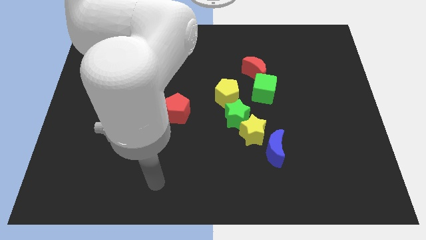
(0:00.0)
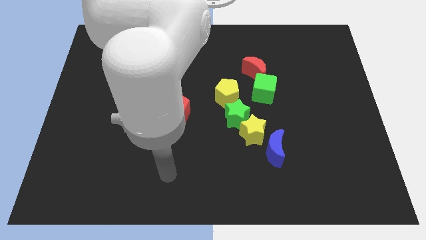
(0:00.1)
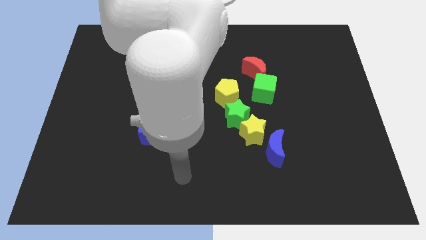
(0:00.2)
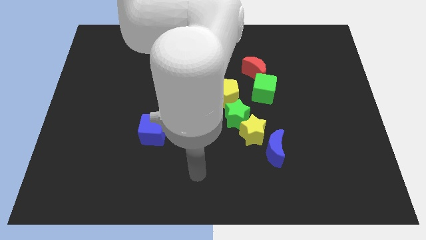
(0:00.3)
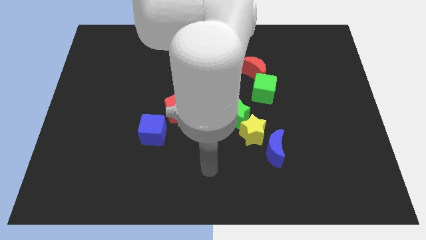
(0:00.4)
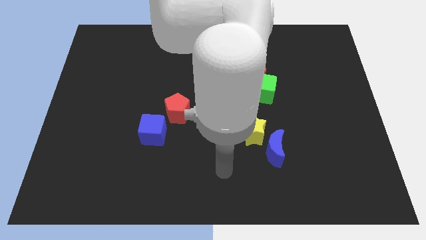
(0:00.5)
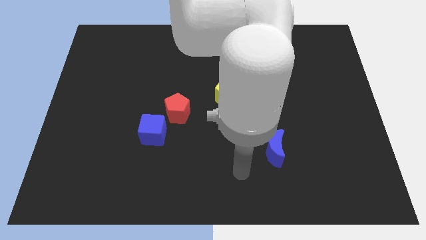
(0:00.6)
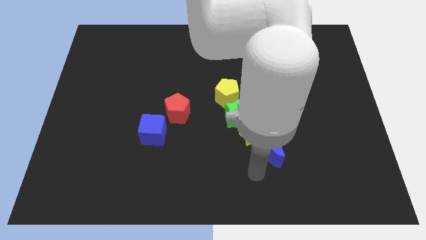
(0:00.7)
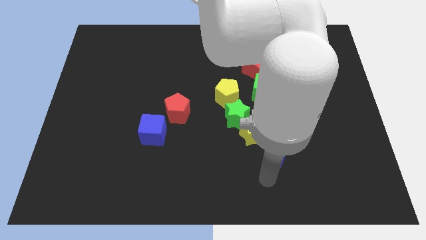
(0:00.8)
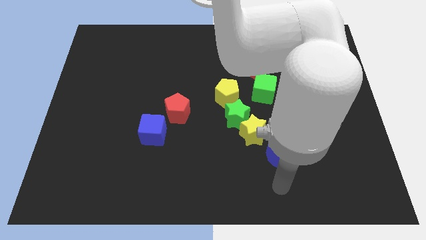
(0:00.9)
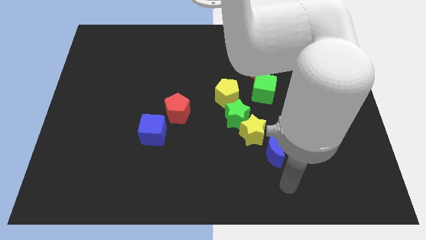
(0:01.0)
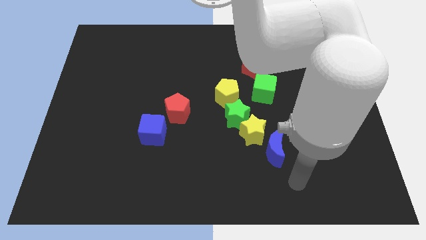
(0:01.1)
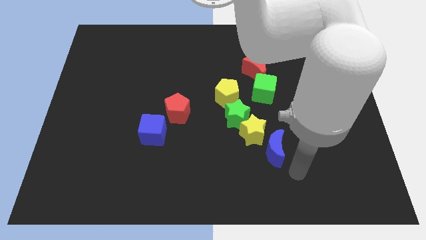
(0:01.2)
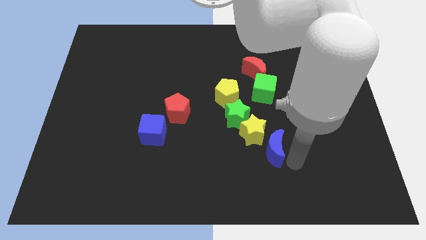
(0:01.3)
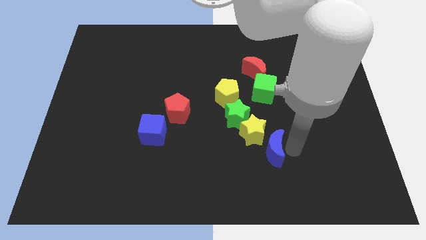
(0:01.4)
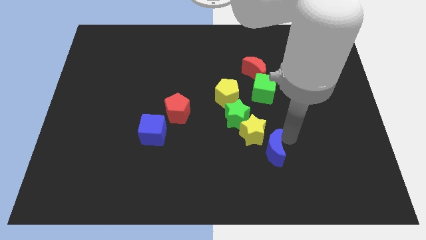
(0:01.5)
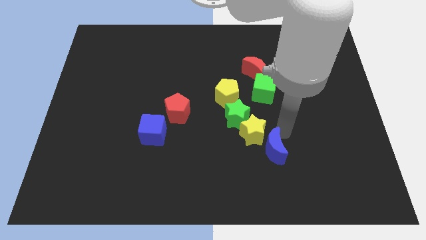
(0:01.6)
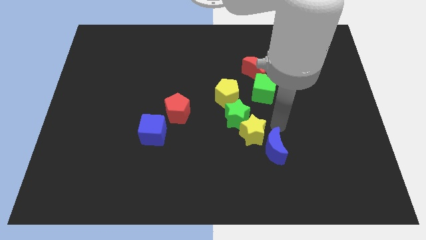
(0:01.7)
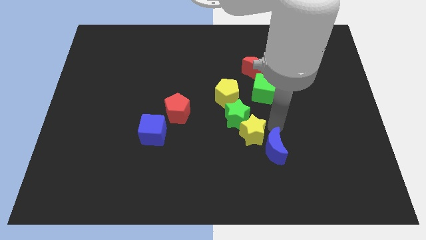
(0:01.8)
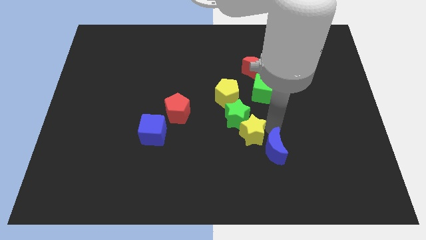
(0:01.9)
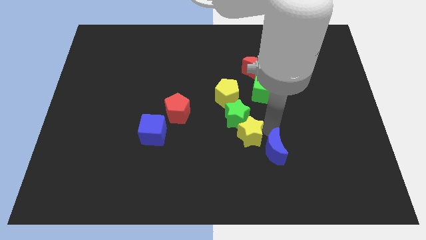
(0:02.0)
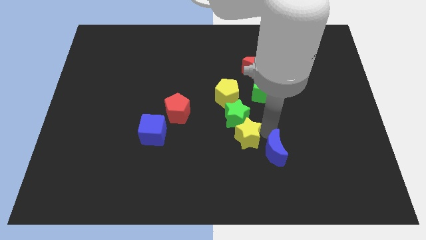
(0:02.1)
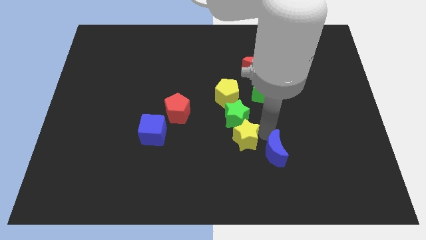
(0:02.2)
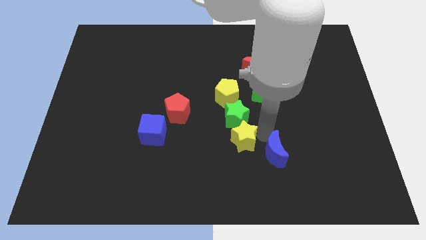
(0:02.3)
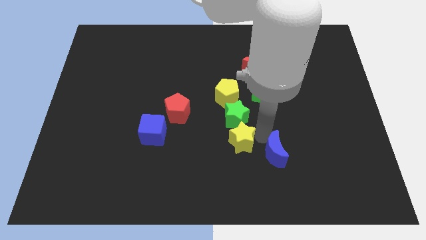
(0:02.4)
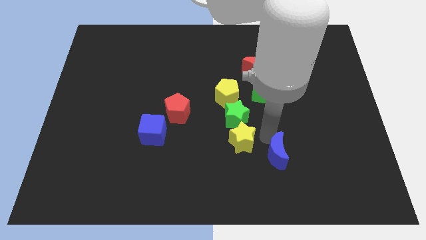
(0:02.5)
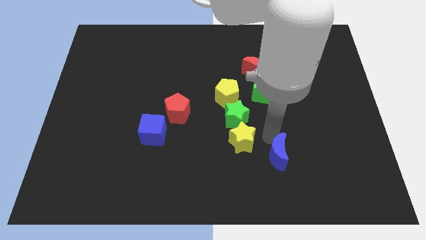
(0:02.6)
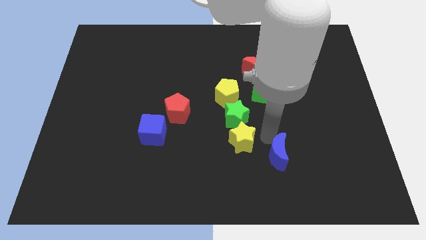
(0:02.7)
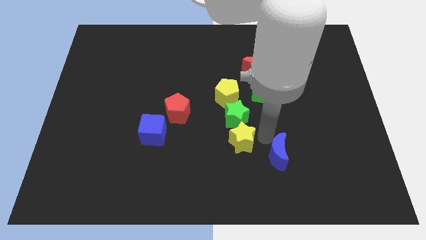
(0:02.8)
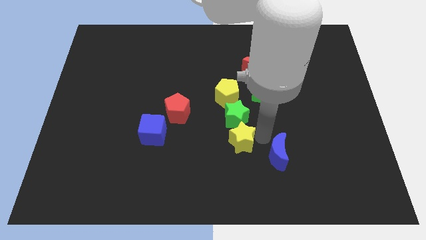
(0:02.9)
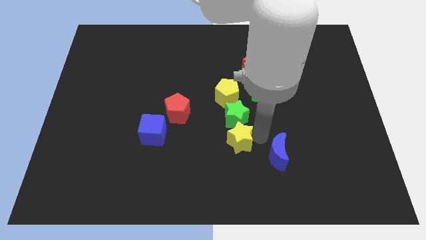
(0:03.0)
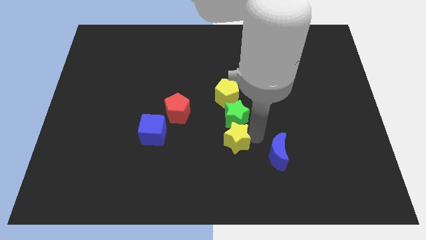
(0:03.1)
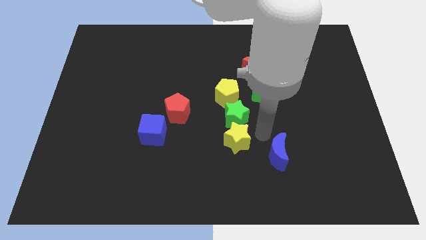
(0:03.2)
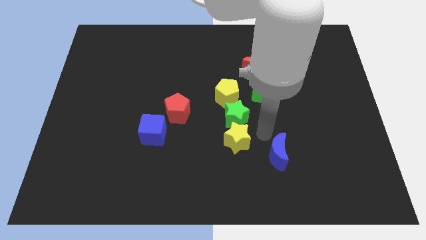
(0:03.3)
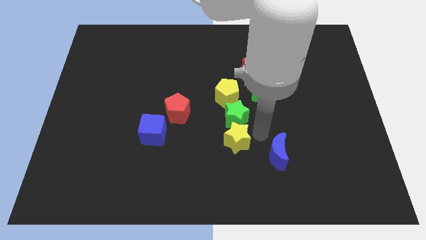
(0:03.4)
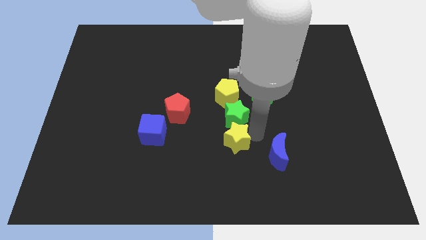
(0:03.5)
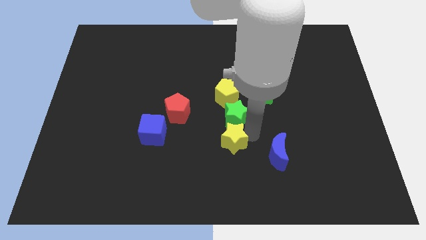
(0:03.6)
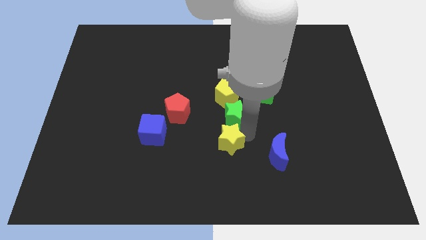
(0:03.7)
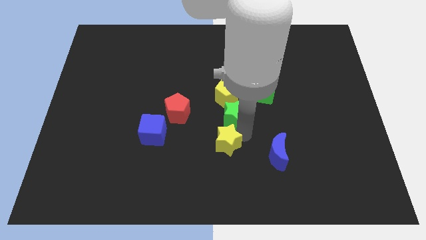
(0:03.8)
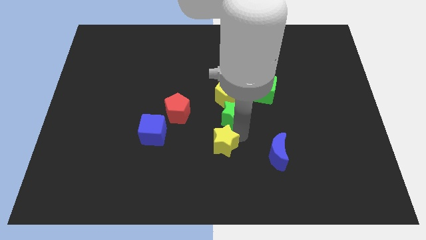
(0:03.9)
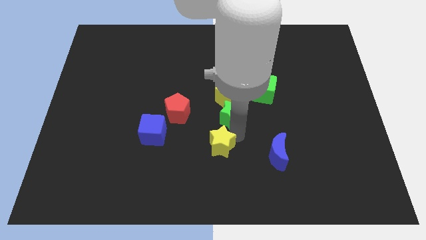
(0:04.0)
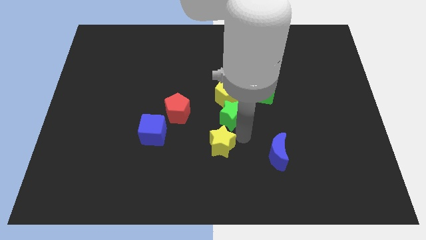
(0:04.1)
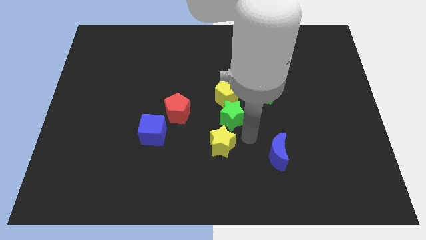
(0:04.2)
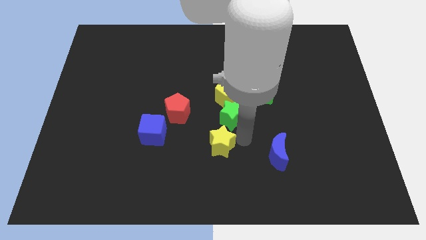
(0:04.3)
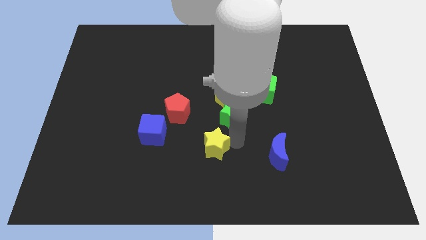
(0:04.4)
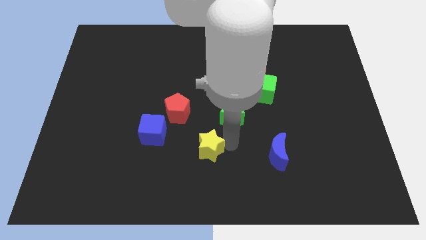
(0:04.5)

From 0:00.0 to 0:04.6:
move the yellow star away from the green star and blue moon

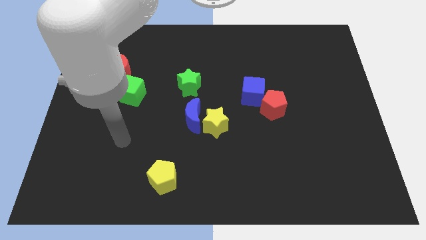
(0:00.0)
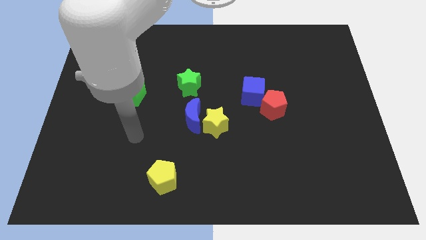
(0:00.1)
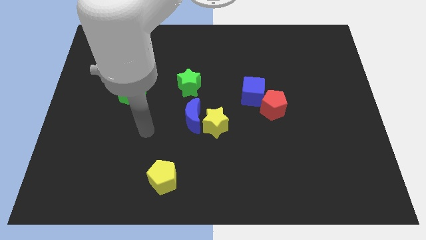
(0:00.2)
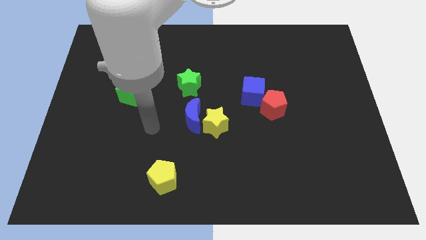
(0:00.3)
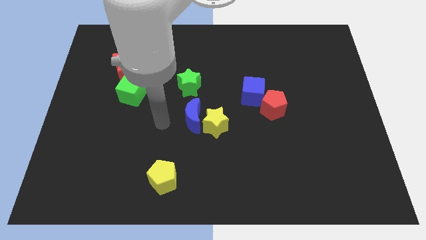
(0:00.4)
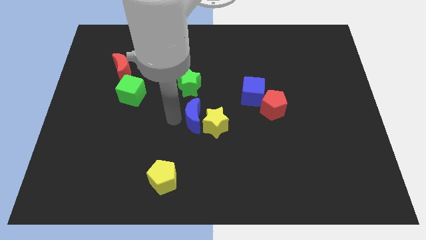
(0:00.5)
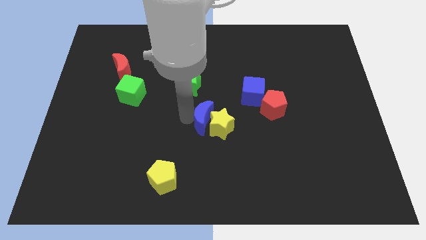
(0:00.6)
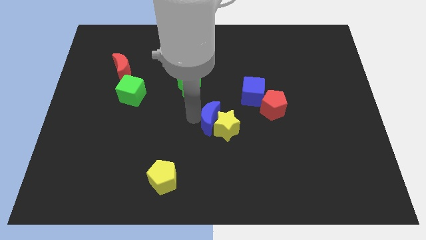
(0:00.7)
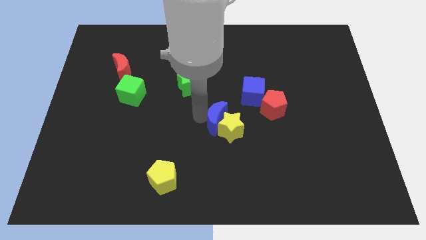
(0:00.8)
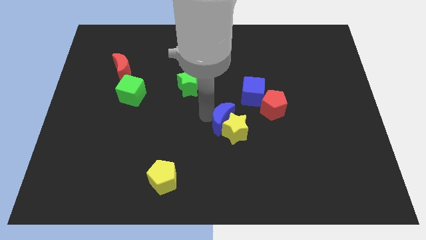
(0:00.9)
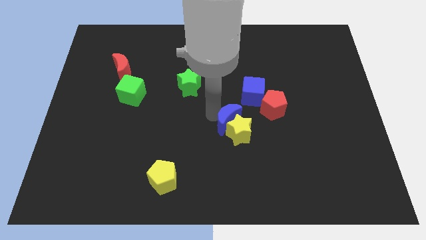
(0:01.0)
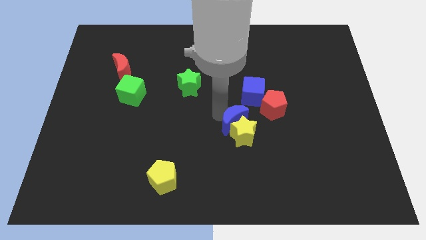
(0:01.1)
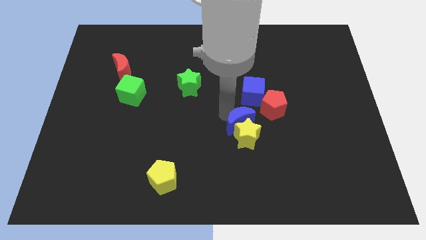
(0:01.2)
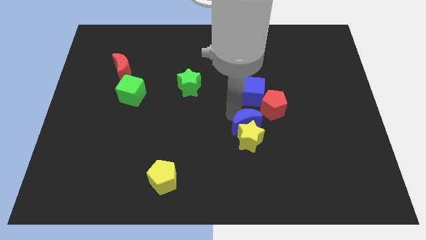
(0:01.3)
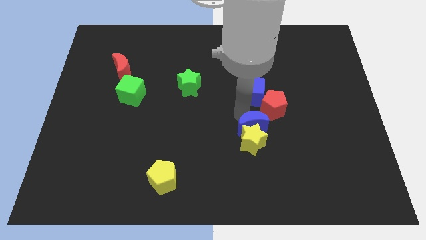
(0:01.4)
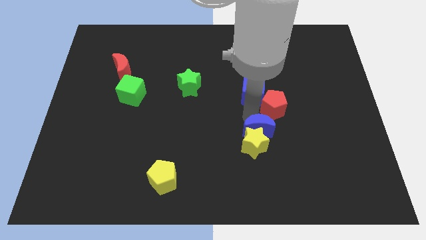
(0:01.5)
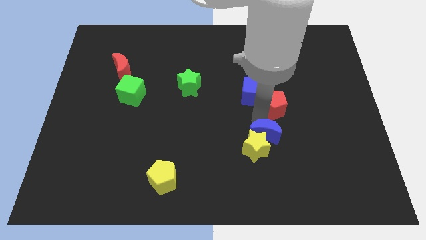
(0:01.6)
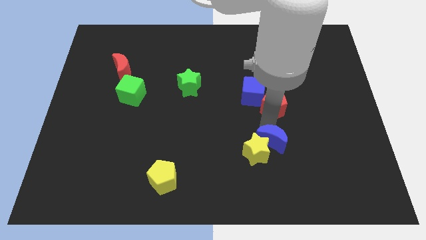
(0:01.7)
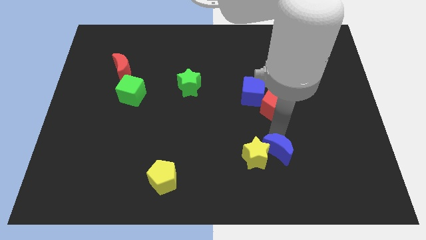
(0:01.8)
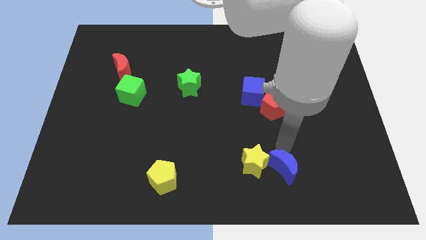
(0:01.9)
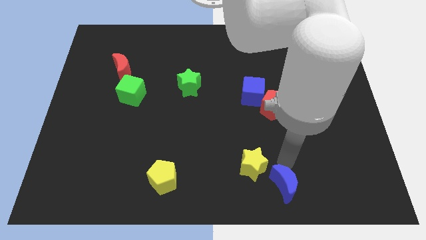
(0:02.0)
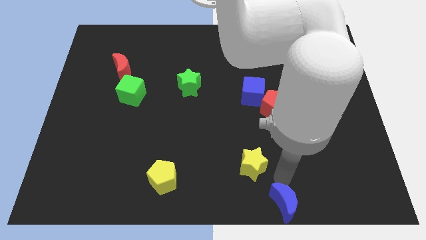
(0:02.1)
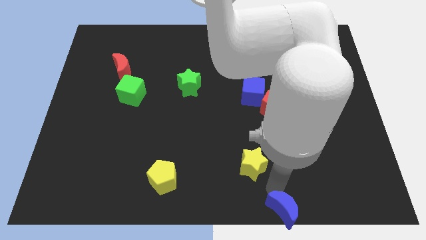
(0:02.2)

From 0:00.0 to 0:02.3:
separate the yellow star from the blue moon

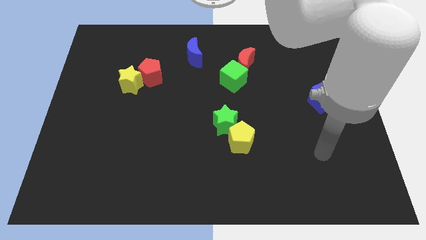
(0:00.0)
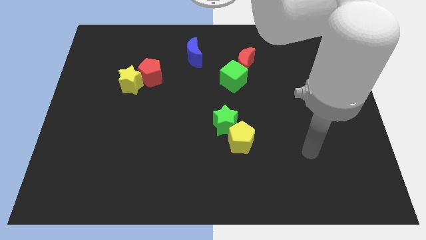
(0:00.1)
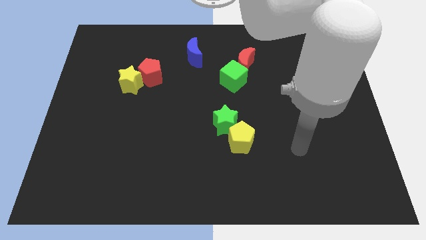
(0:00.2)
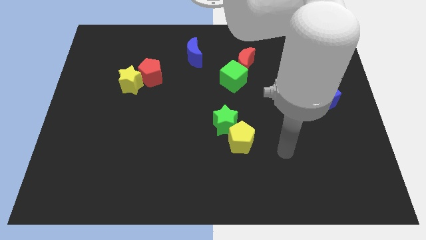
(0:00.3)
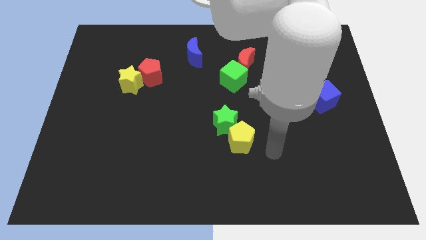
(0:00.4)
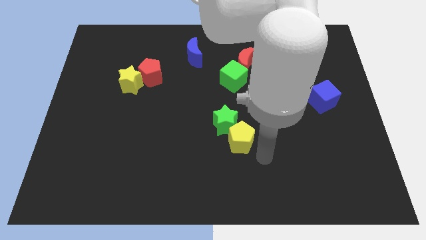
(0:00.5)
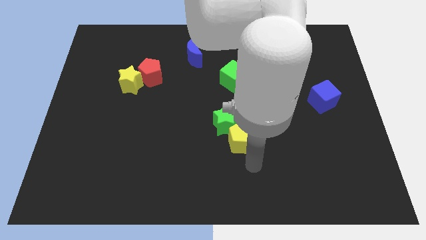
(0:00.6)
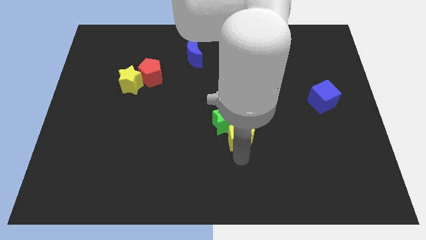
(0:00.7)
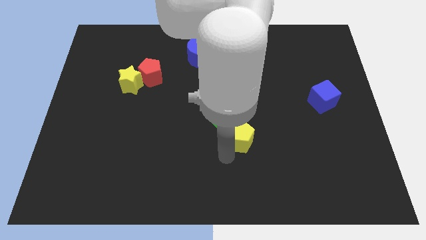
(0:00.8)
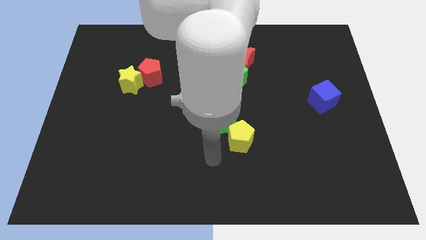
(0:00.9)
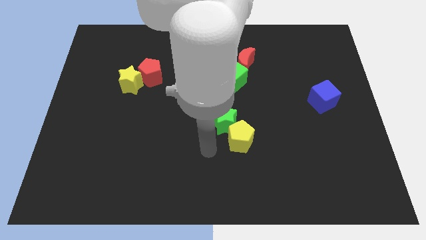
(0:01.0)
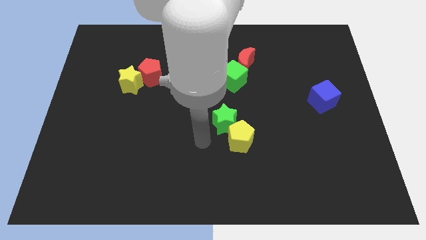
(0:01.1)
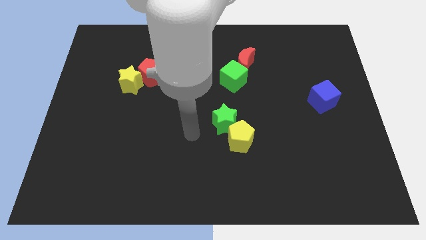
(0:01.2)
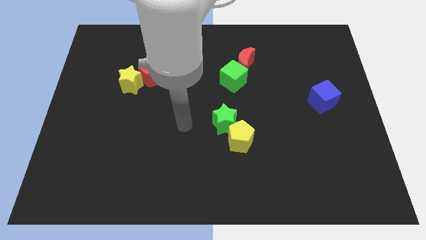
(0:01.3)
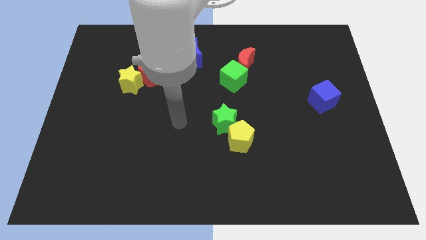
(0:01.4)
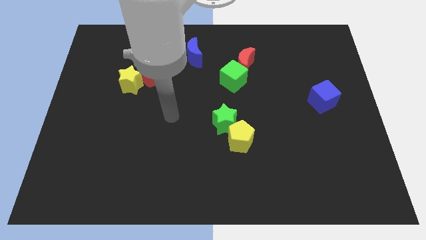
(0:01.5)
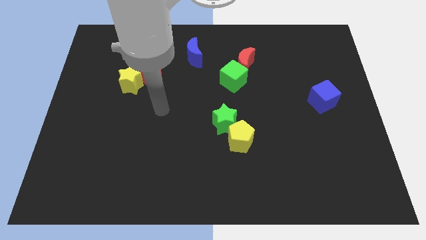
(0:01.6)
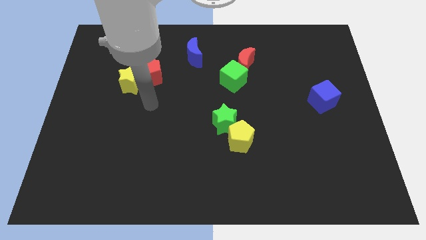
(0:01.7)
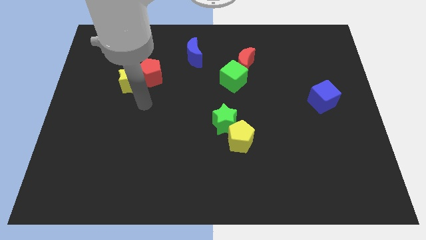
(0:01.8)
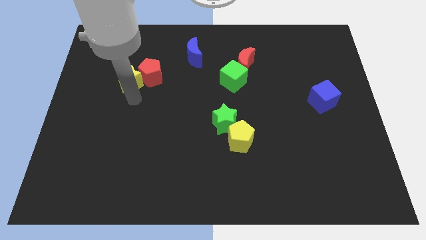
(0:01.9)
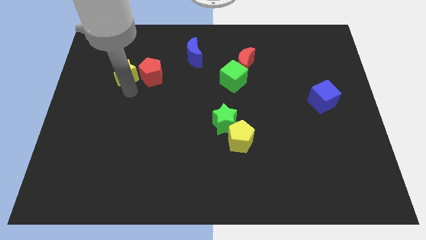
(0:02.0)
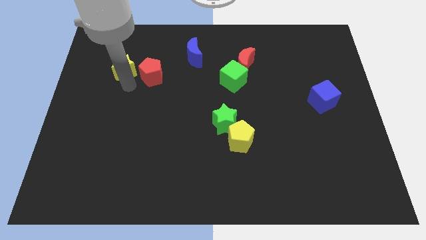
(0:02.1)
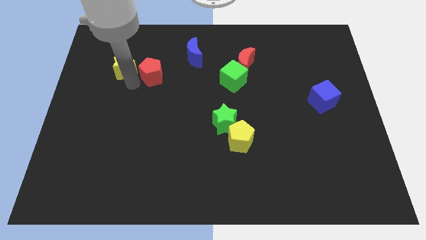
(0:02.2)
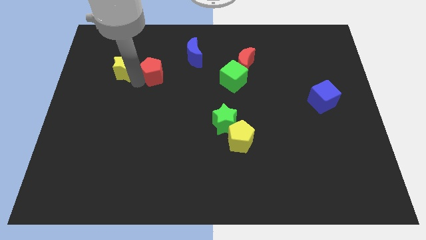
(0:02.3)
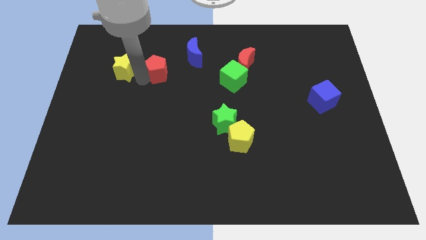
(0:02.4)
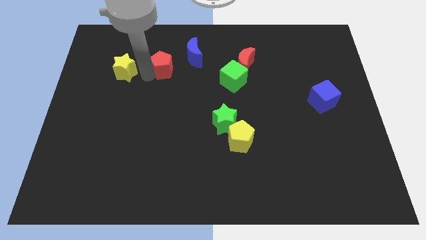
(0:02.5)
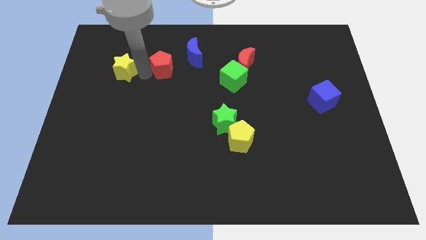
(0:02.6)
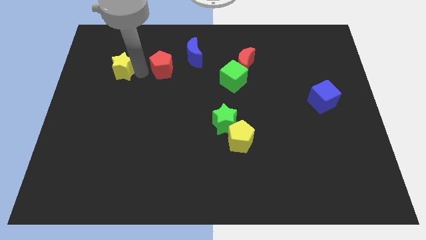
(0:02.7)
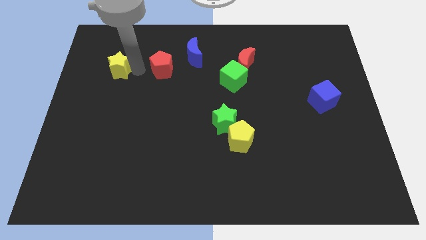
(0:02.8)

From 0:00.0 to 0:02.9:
pull the red pentagon apart from the yellow star
